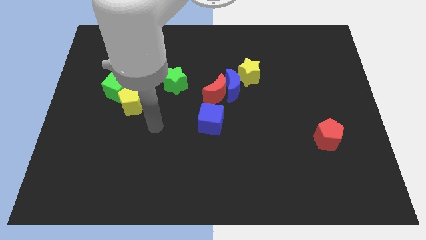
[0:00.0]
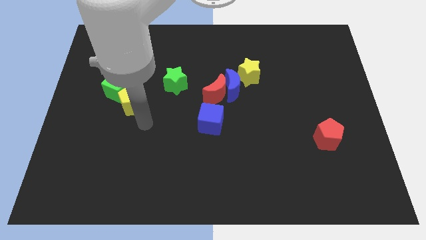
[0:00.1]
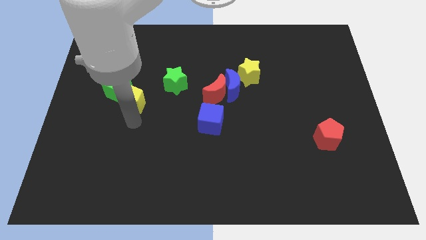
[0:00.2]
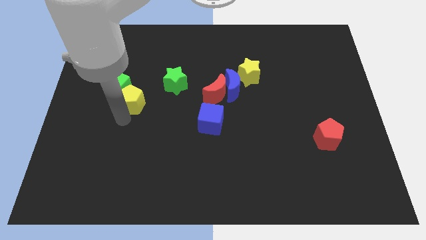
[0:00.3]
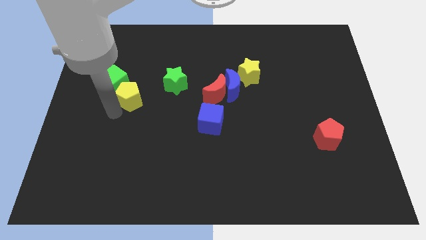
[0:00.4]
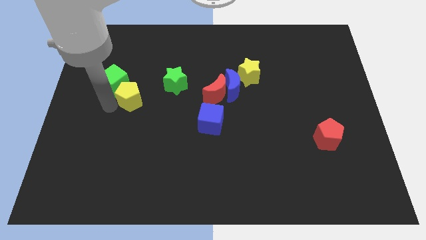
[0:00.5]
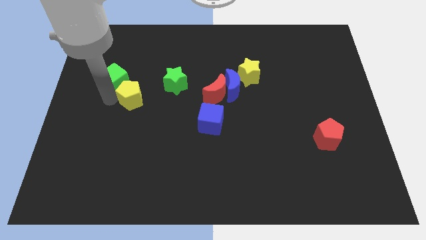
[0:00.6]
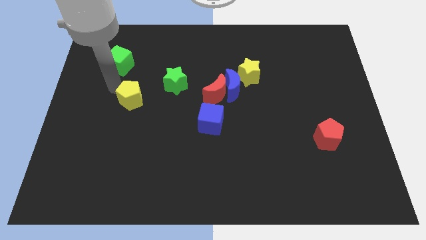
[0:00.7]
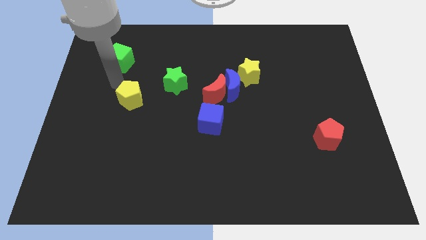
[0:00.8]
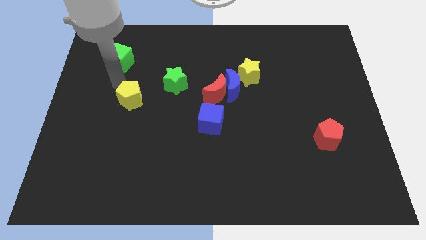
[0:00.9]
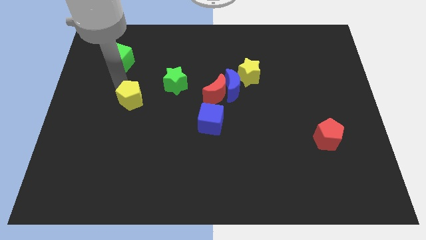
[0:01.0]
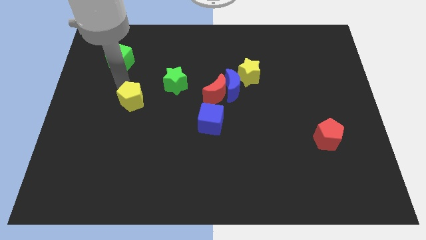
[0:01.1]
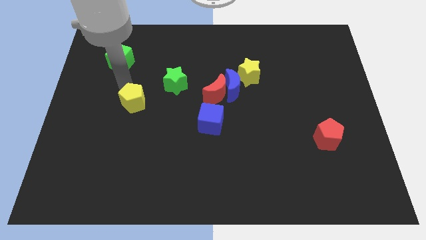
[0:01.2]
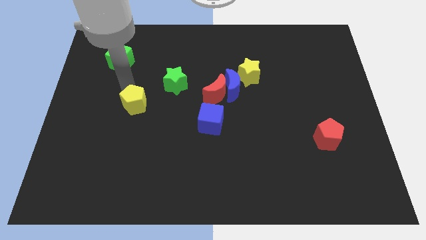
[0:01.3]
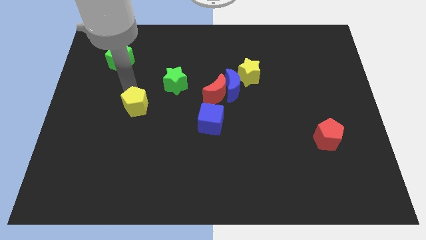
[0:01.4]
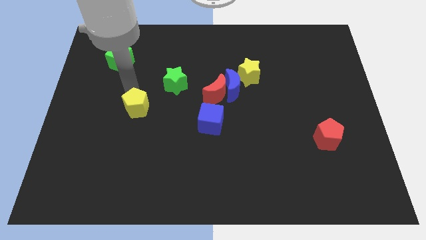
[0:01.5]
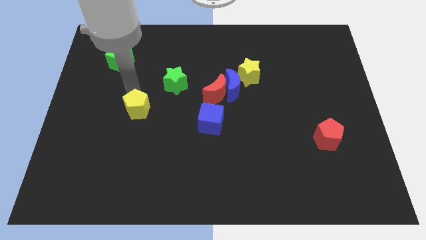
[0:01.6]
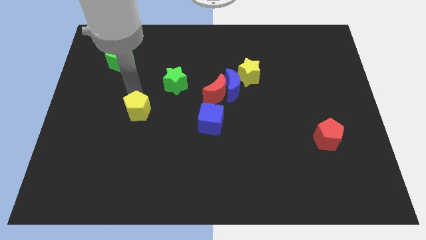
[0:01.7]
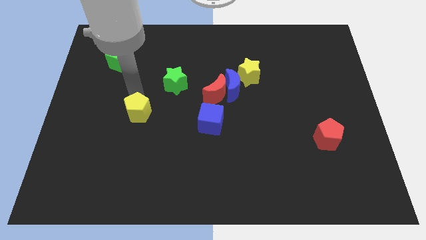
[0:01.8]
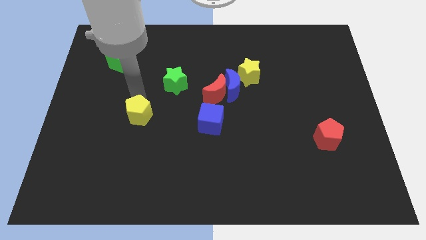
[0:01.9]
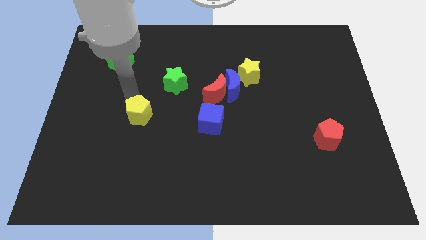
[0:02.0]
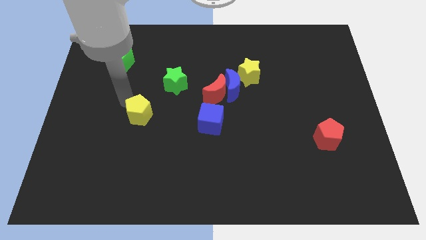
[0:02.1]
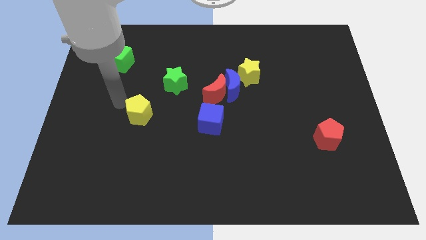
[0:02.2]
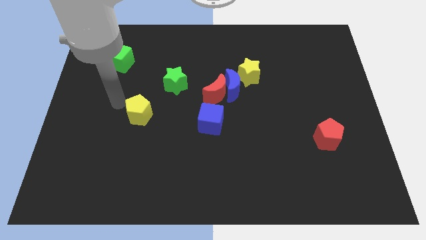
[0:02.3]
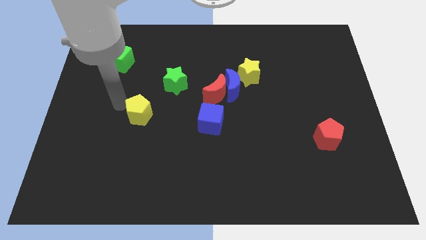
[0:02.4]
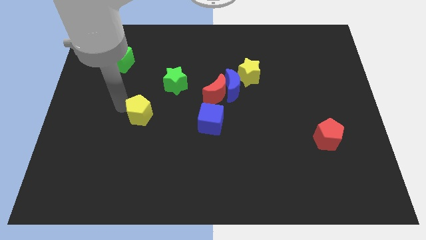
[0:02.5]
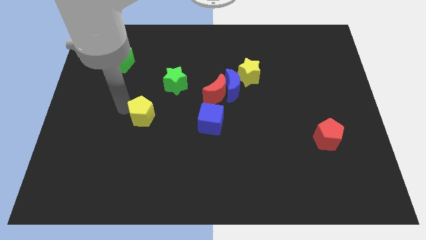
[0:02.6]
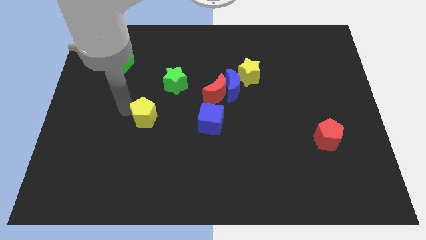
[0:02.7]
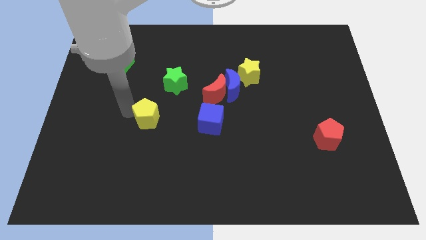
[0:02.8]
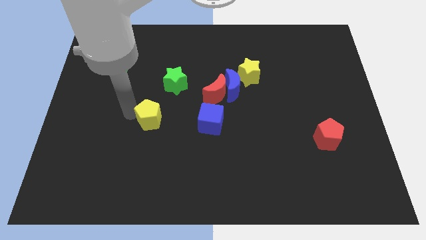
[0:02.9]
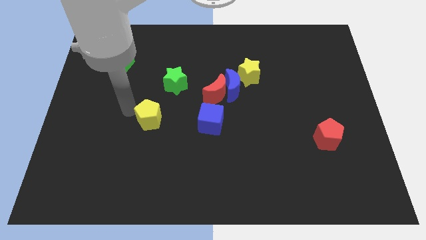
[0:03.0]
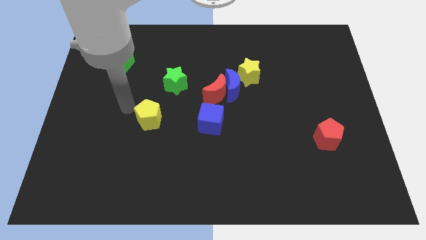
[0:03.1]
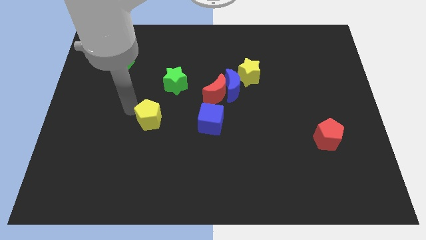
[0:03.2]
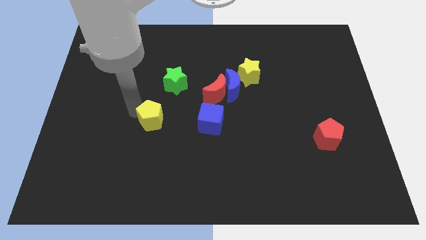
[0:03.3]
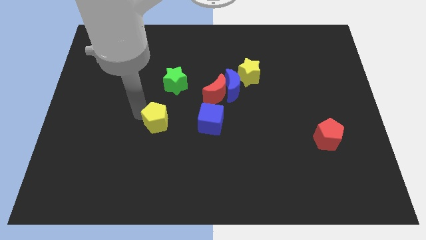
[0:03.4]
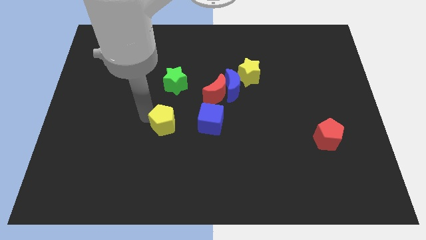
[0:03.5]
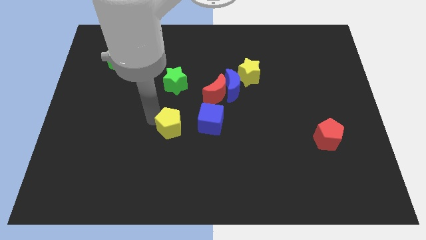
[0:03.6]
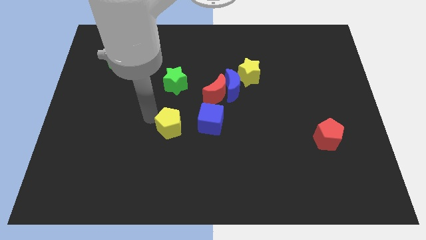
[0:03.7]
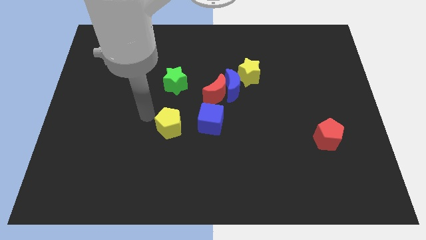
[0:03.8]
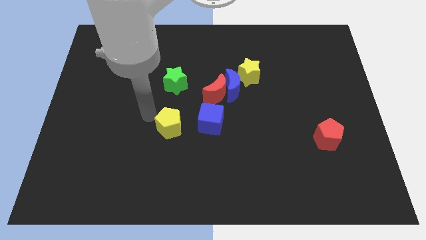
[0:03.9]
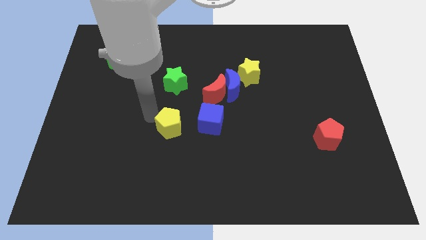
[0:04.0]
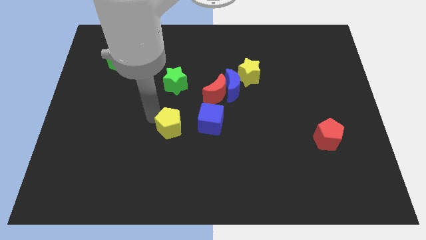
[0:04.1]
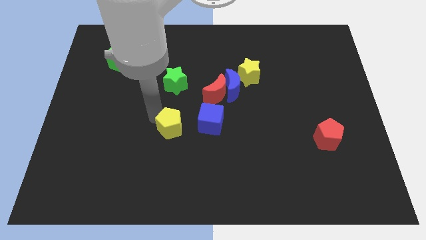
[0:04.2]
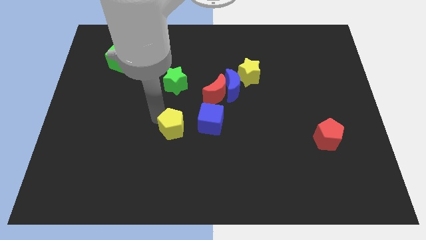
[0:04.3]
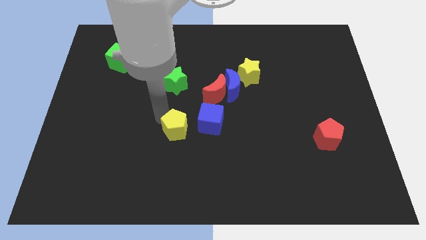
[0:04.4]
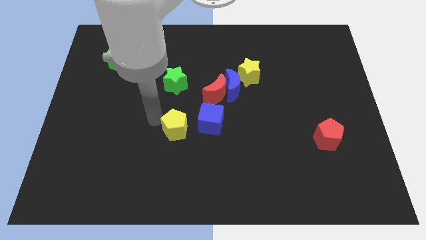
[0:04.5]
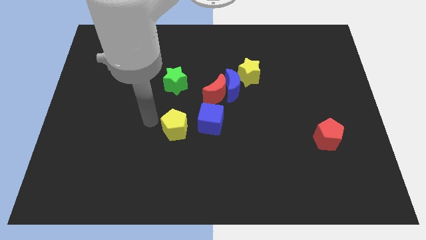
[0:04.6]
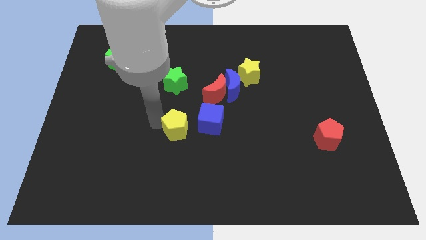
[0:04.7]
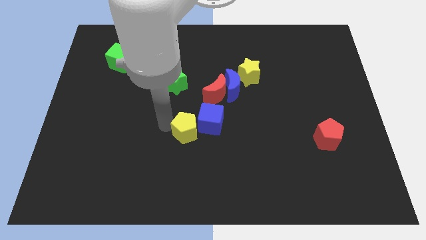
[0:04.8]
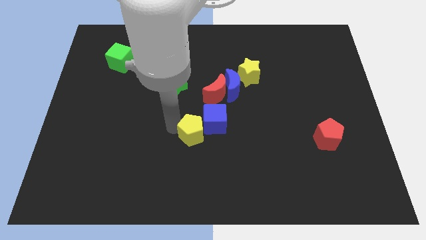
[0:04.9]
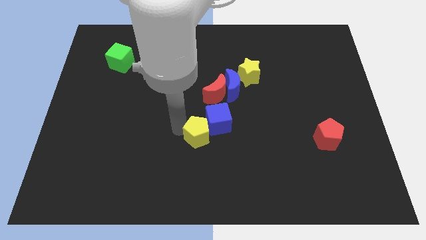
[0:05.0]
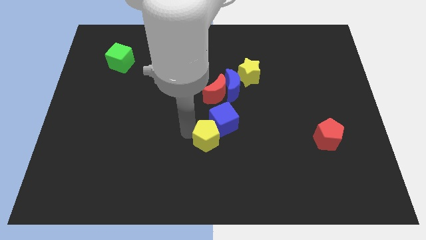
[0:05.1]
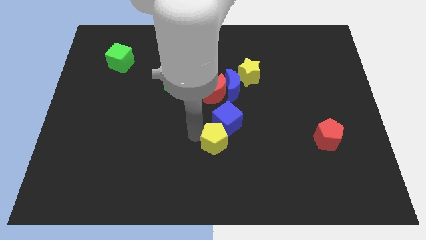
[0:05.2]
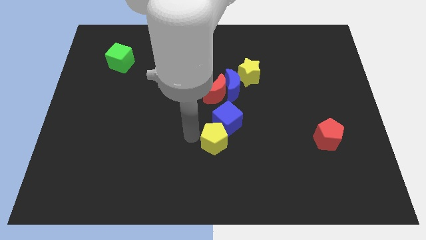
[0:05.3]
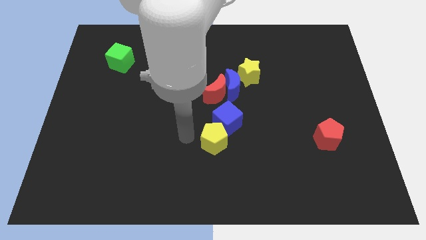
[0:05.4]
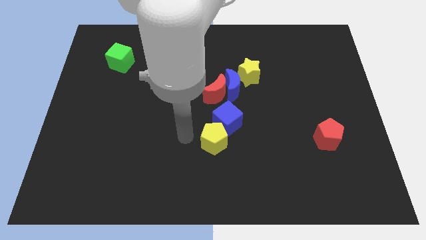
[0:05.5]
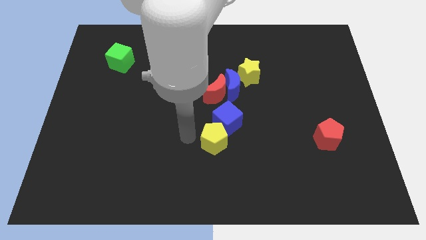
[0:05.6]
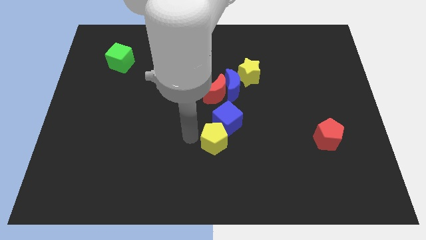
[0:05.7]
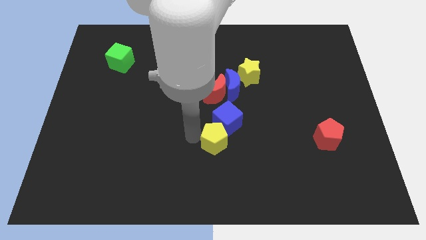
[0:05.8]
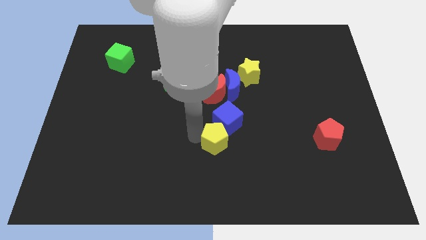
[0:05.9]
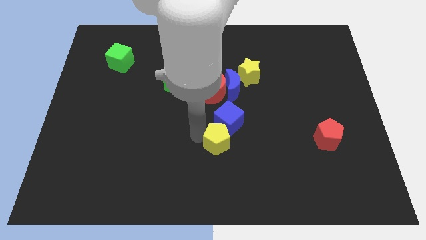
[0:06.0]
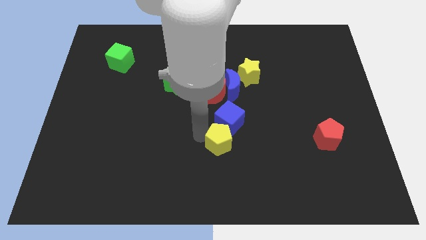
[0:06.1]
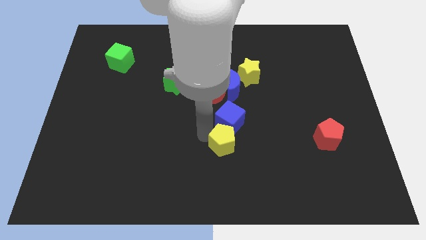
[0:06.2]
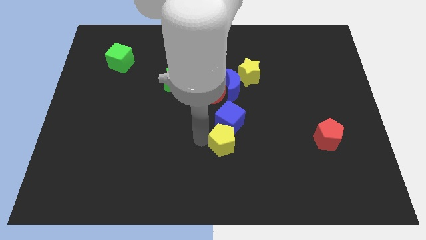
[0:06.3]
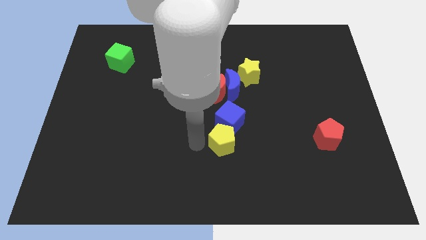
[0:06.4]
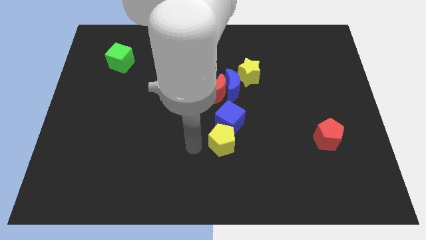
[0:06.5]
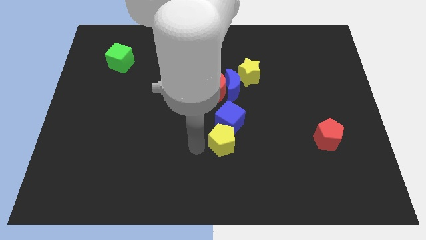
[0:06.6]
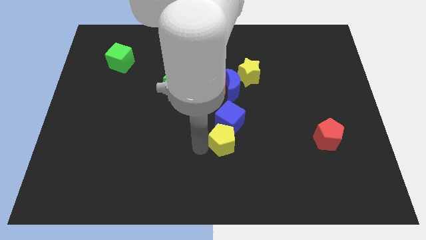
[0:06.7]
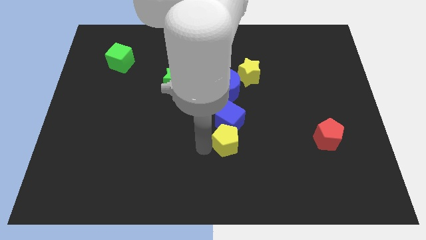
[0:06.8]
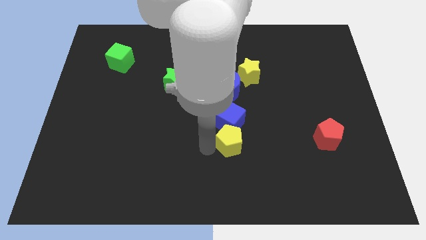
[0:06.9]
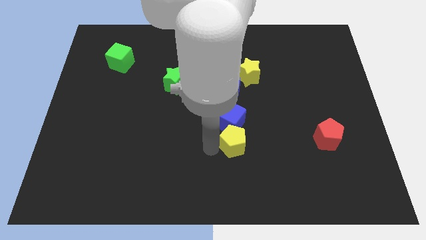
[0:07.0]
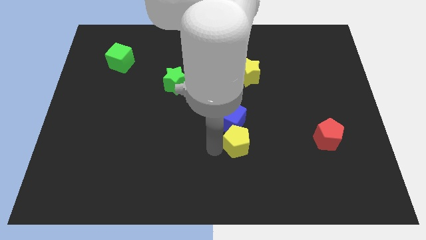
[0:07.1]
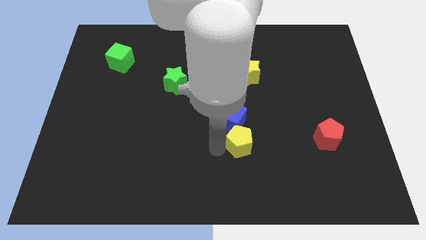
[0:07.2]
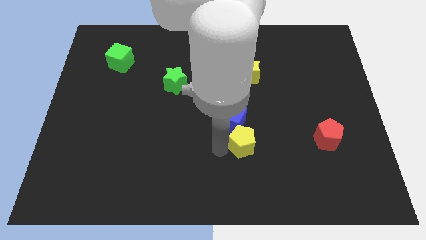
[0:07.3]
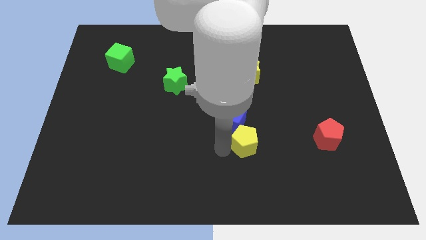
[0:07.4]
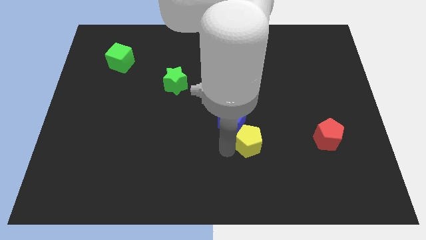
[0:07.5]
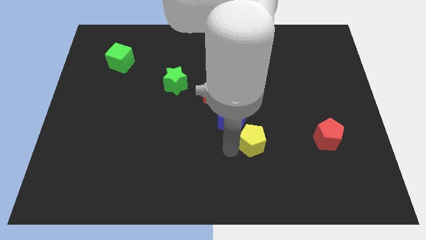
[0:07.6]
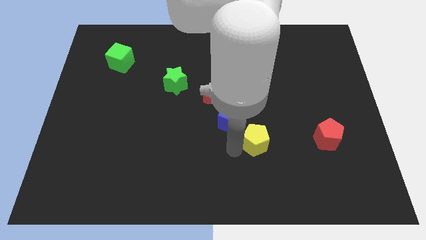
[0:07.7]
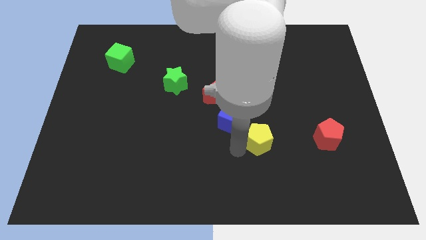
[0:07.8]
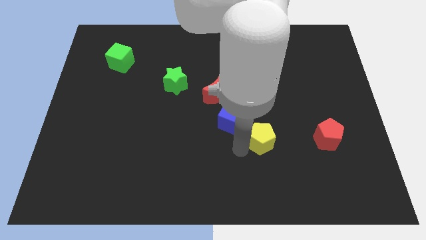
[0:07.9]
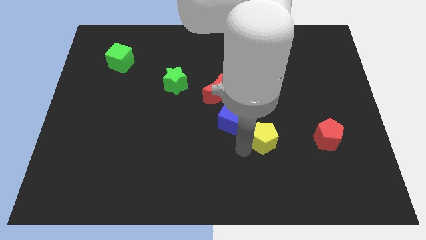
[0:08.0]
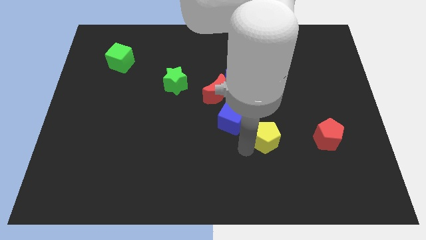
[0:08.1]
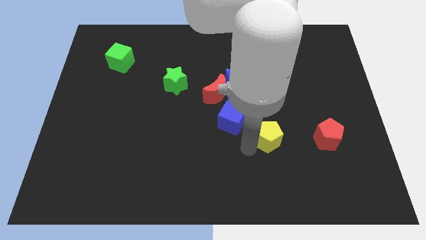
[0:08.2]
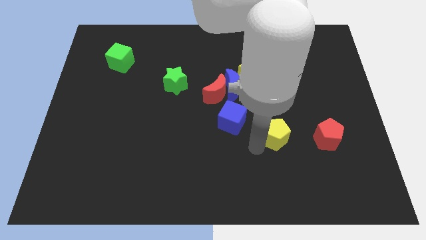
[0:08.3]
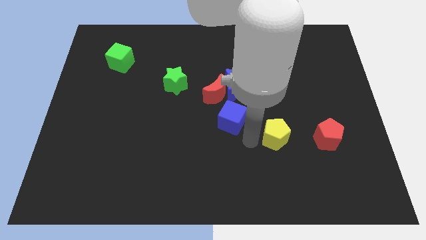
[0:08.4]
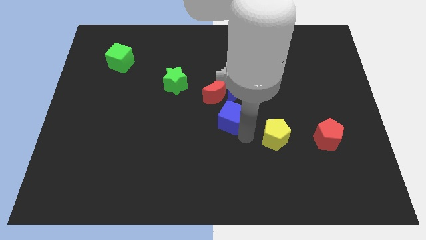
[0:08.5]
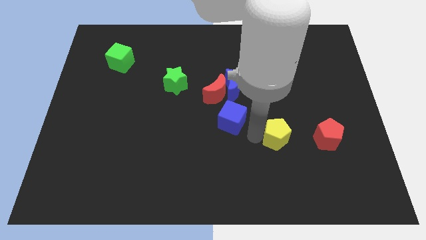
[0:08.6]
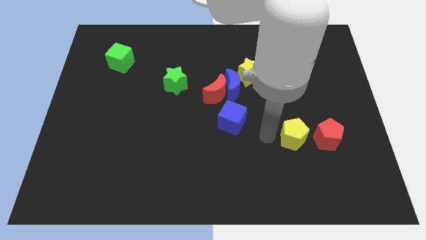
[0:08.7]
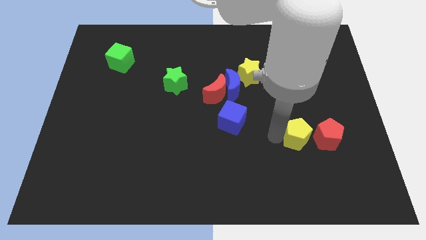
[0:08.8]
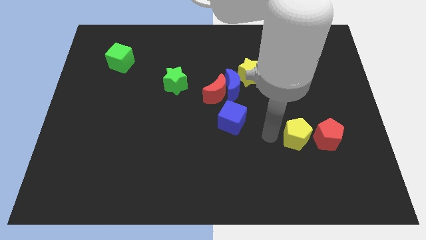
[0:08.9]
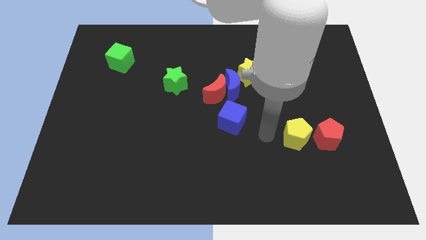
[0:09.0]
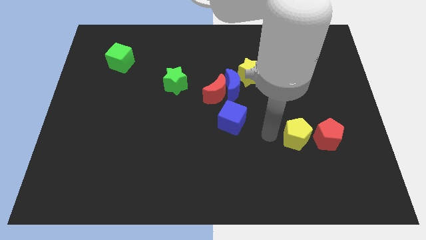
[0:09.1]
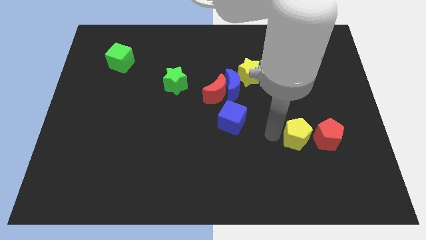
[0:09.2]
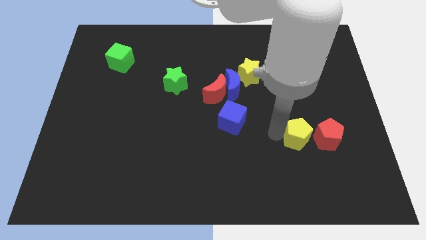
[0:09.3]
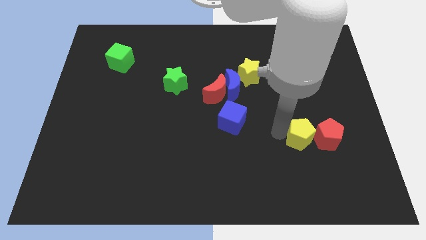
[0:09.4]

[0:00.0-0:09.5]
move the yellow pentagon towards the red pentagon
